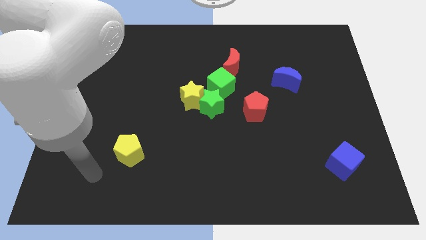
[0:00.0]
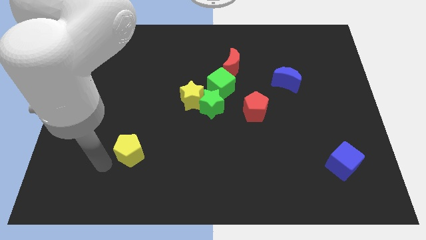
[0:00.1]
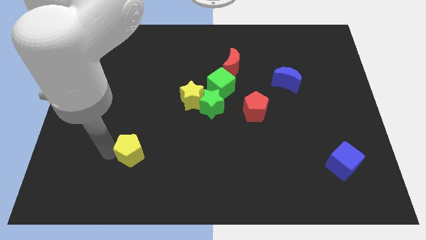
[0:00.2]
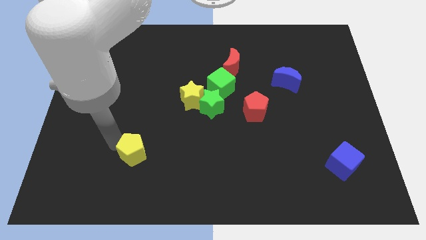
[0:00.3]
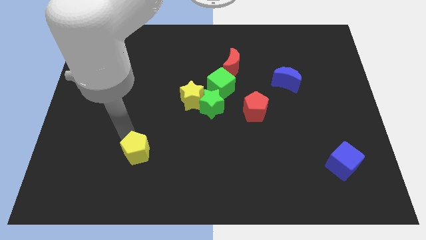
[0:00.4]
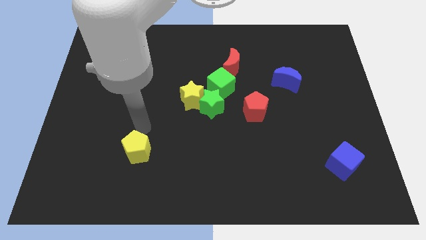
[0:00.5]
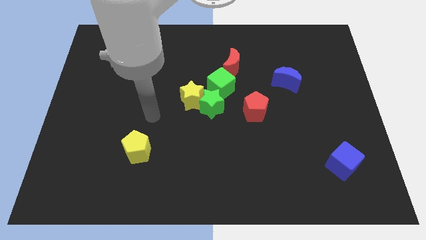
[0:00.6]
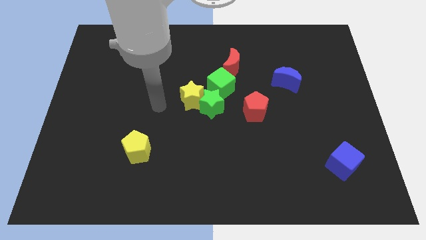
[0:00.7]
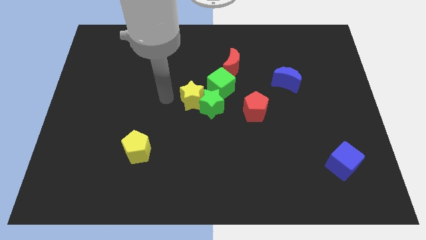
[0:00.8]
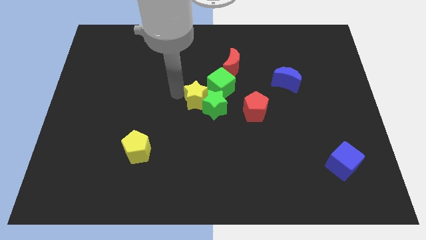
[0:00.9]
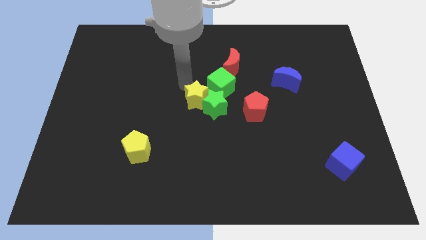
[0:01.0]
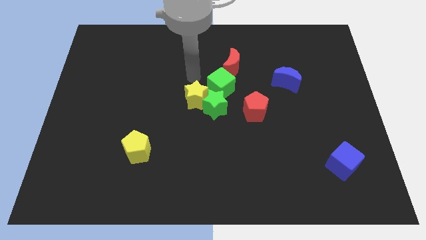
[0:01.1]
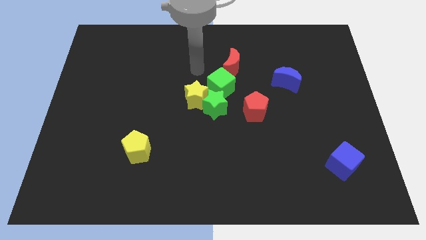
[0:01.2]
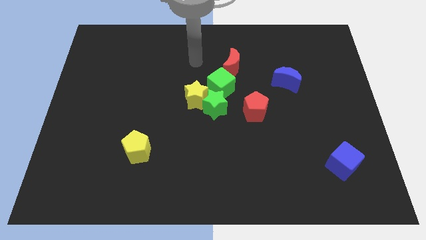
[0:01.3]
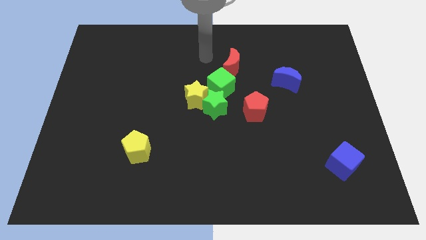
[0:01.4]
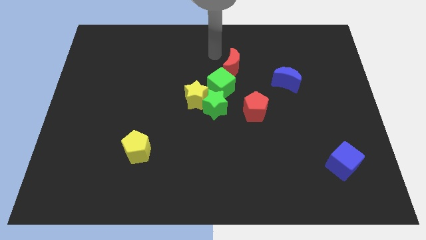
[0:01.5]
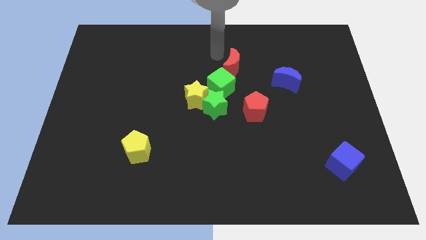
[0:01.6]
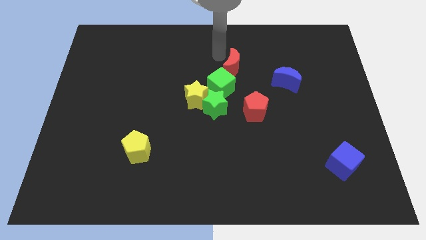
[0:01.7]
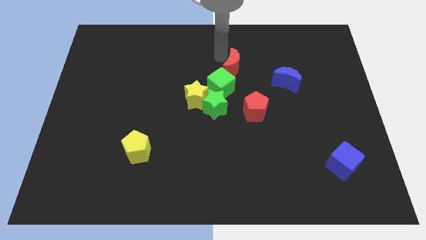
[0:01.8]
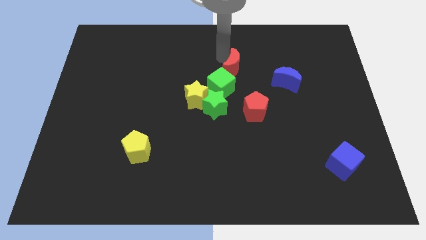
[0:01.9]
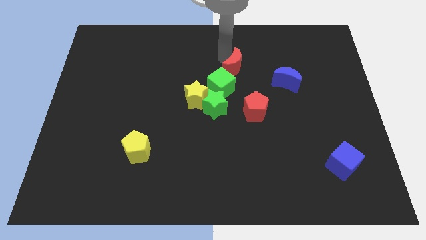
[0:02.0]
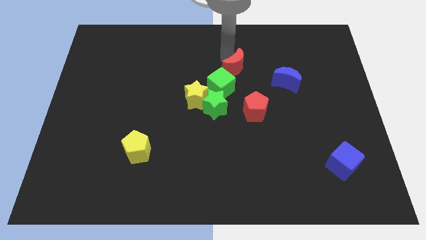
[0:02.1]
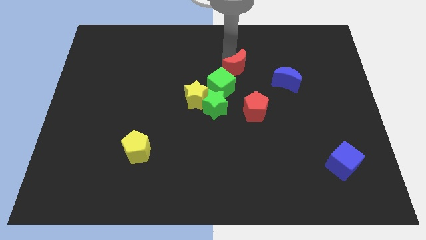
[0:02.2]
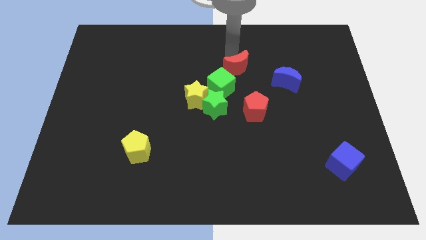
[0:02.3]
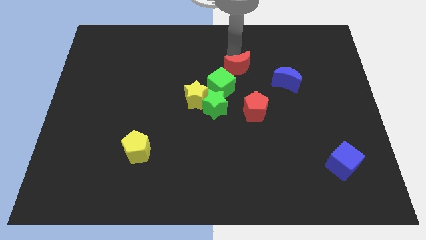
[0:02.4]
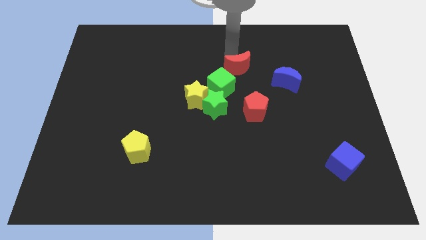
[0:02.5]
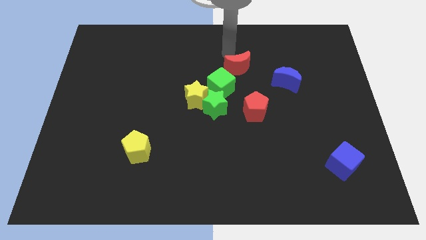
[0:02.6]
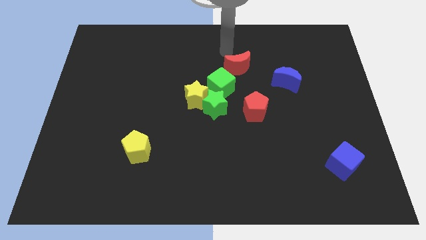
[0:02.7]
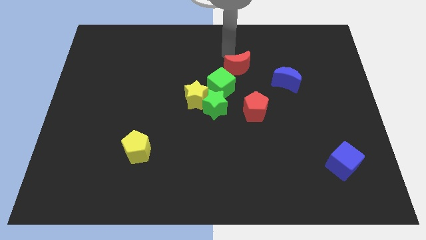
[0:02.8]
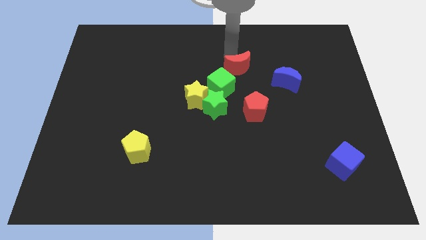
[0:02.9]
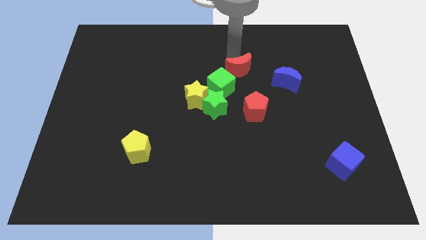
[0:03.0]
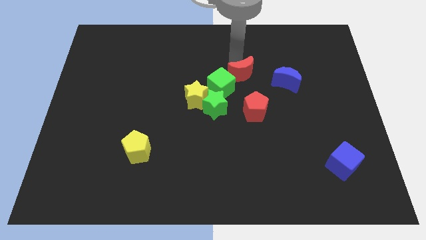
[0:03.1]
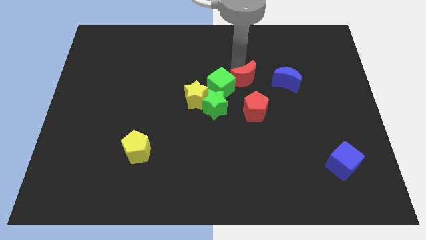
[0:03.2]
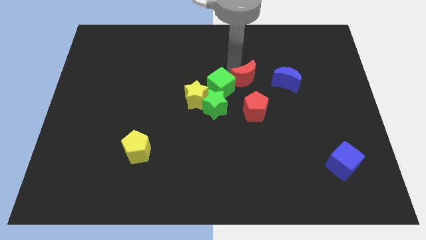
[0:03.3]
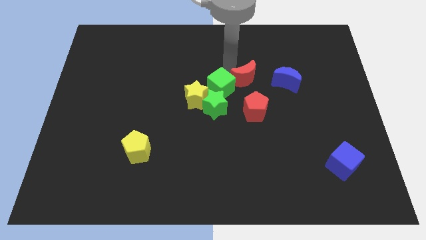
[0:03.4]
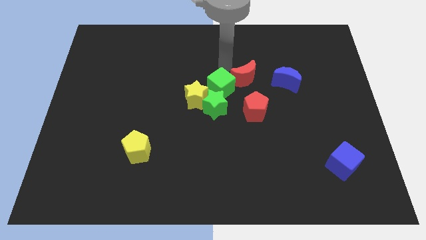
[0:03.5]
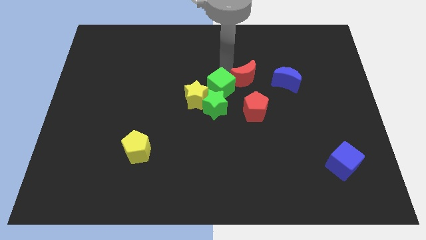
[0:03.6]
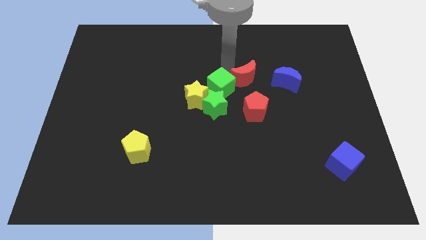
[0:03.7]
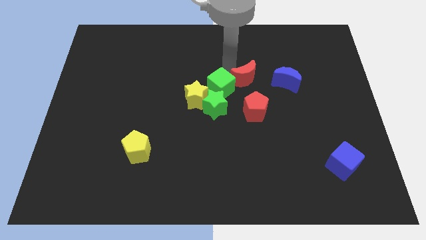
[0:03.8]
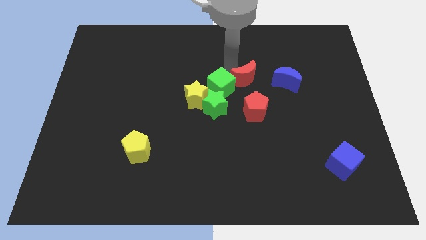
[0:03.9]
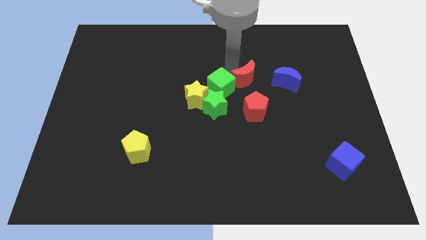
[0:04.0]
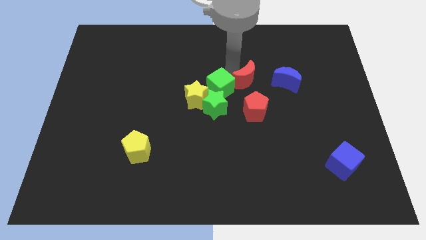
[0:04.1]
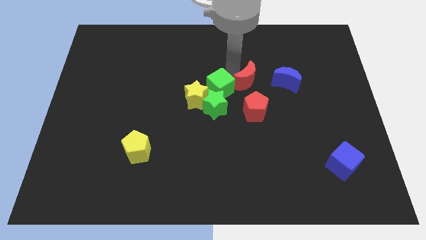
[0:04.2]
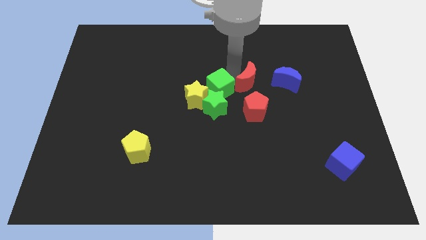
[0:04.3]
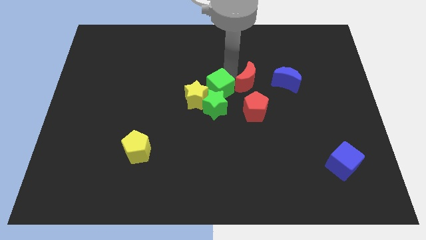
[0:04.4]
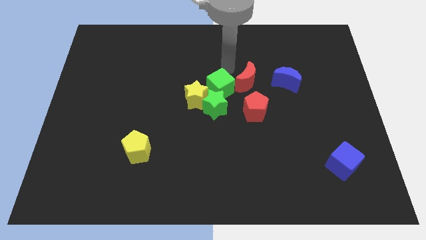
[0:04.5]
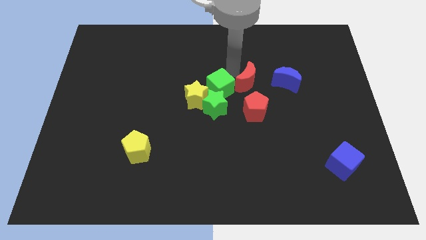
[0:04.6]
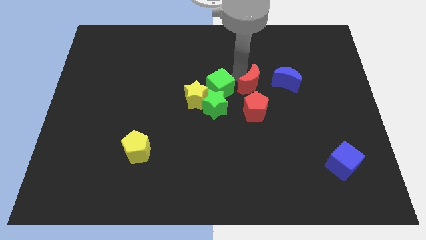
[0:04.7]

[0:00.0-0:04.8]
move the red moon down and then right a little

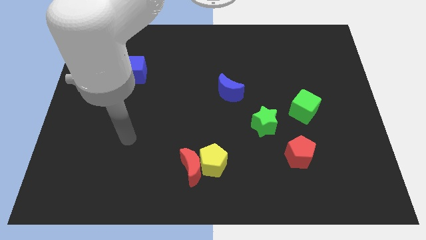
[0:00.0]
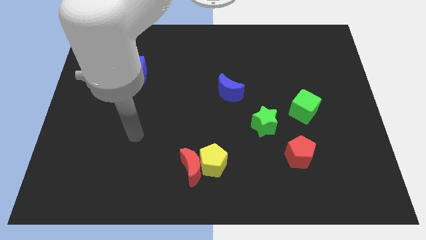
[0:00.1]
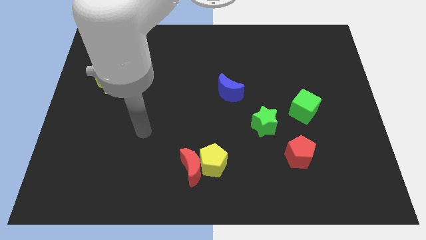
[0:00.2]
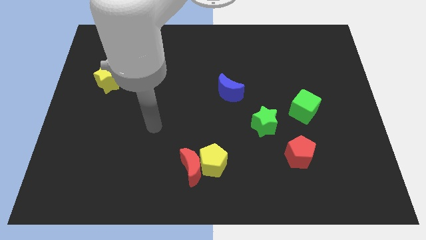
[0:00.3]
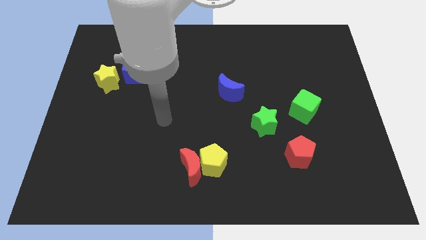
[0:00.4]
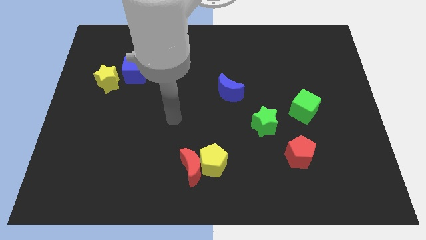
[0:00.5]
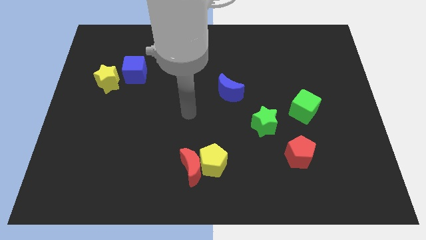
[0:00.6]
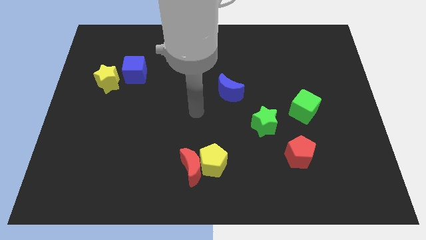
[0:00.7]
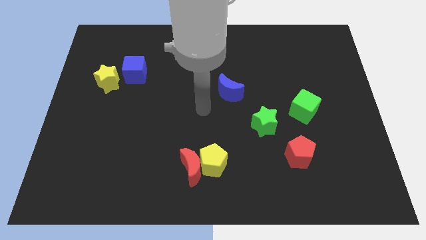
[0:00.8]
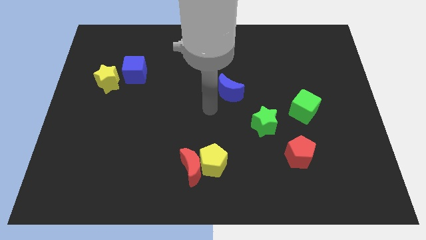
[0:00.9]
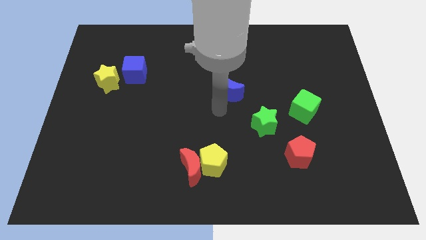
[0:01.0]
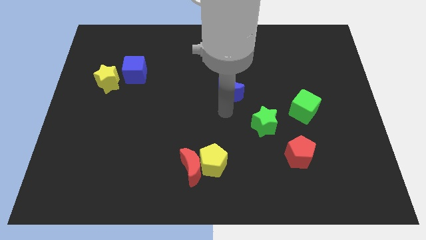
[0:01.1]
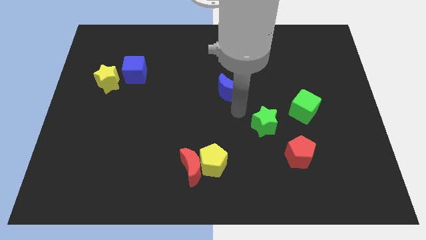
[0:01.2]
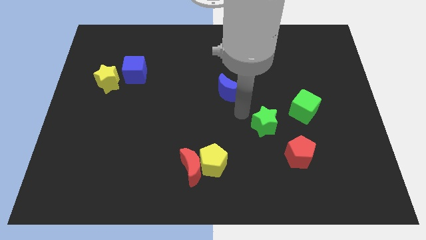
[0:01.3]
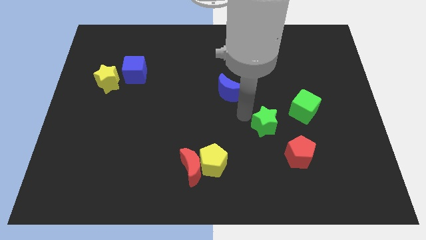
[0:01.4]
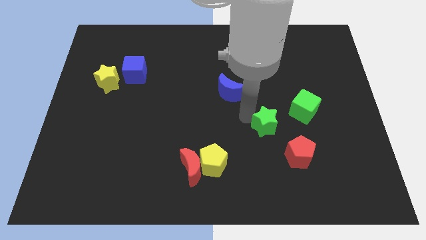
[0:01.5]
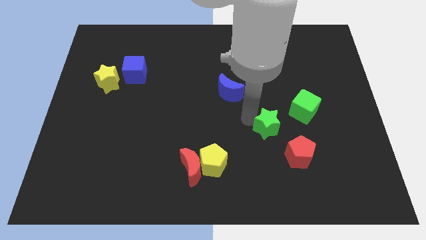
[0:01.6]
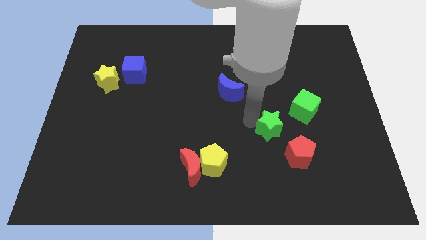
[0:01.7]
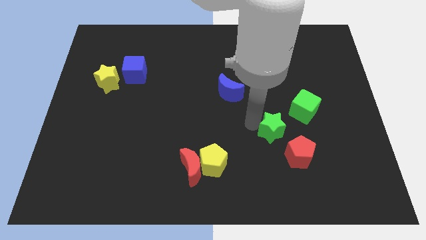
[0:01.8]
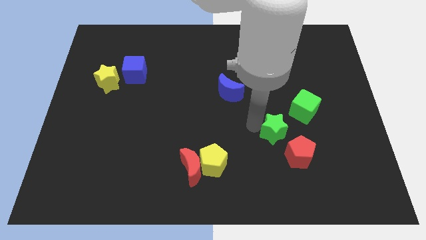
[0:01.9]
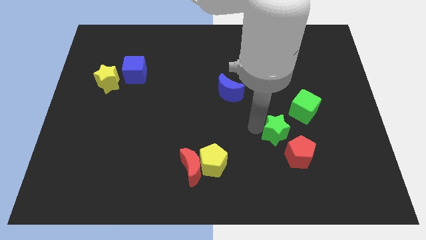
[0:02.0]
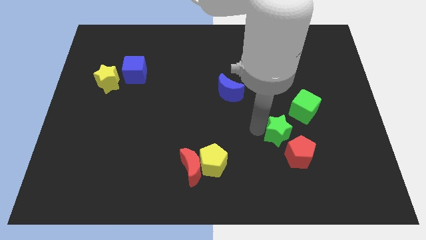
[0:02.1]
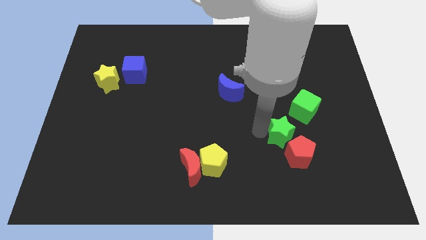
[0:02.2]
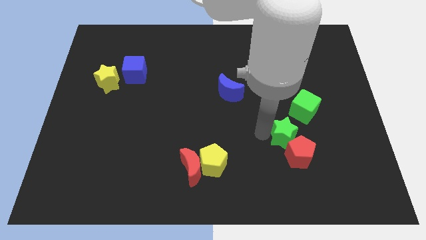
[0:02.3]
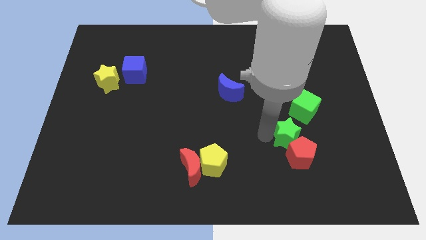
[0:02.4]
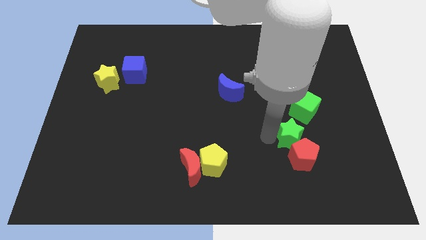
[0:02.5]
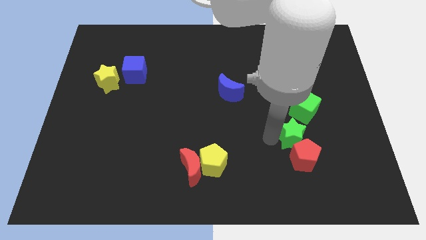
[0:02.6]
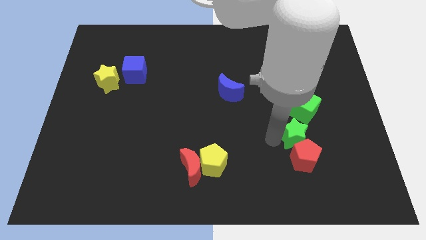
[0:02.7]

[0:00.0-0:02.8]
slide the green star downwards and right diagonally slightly
